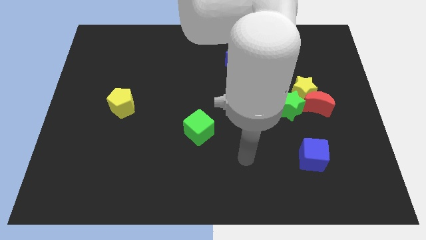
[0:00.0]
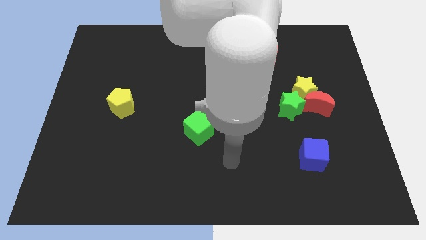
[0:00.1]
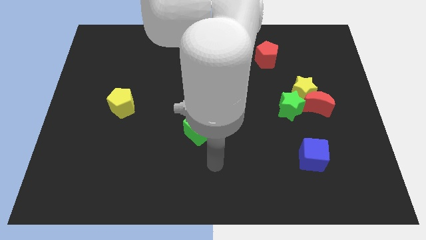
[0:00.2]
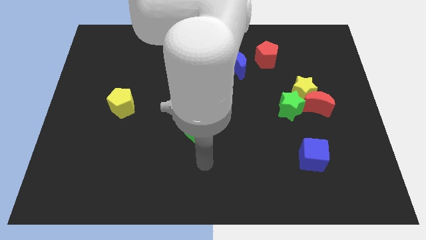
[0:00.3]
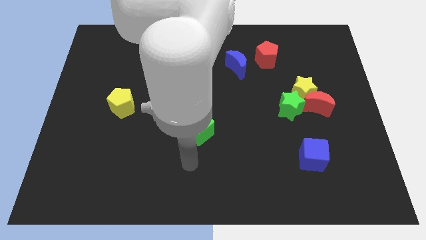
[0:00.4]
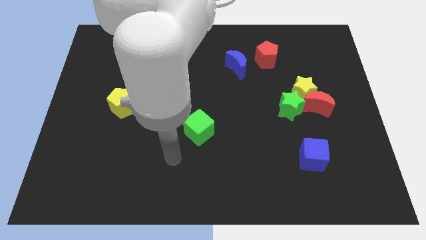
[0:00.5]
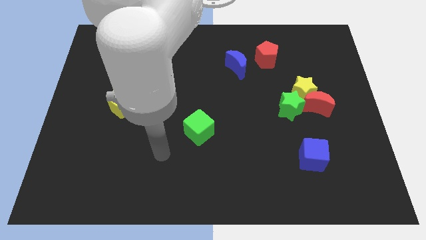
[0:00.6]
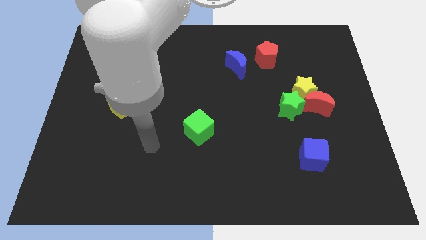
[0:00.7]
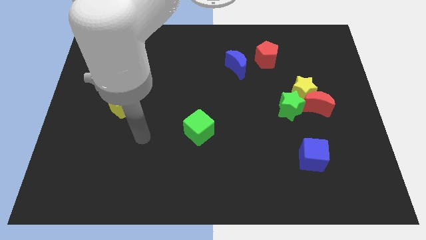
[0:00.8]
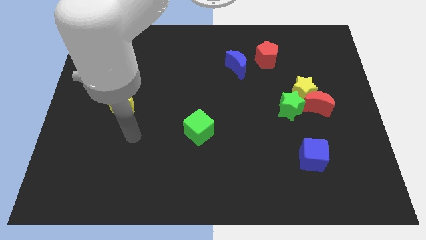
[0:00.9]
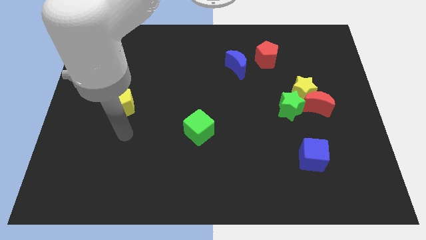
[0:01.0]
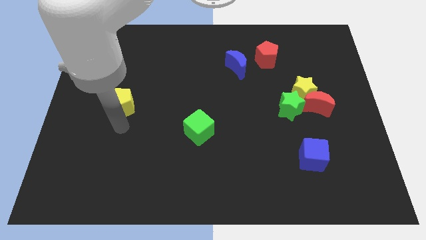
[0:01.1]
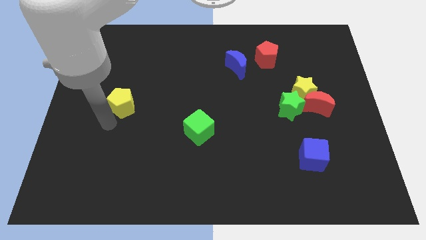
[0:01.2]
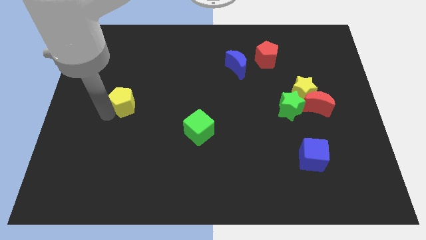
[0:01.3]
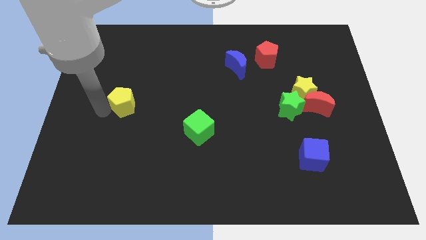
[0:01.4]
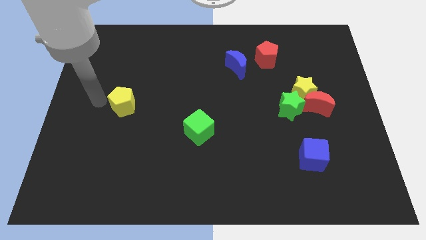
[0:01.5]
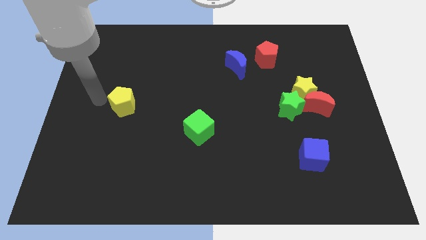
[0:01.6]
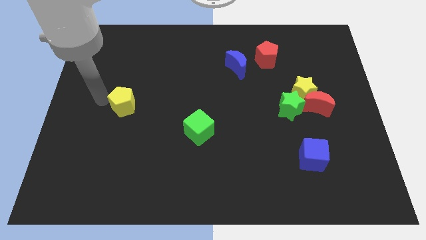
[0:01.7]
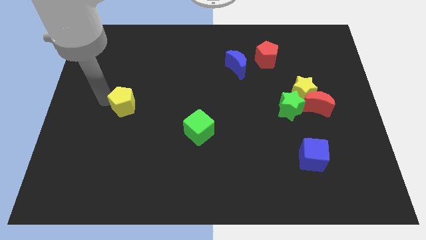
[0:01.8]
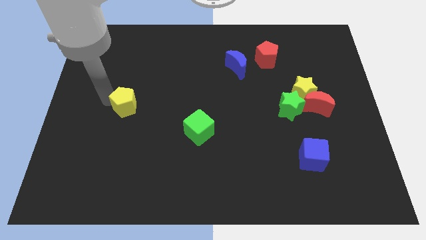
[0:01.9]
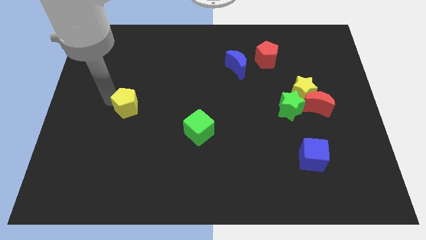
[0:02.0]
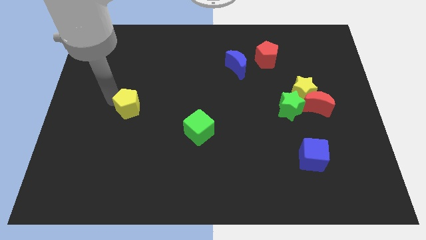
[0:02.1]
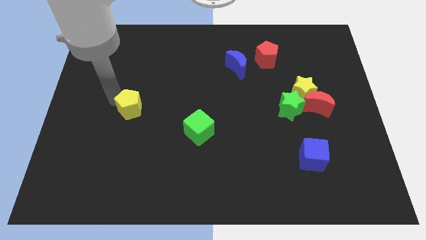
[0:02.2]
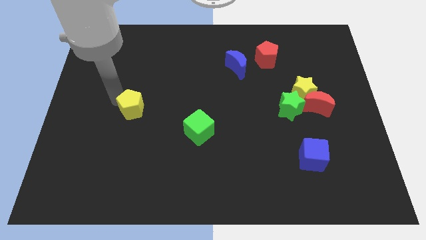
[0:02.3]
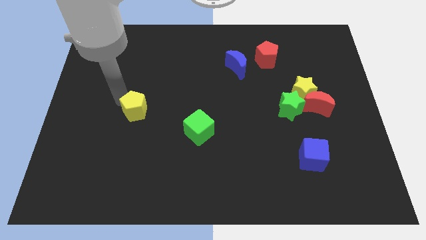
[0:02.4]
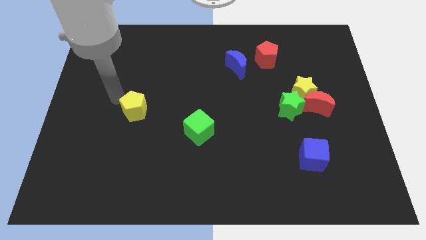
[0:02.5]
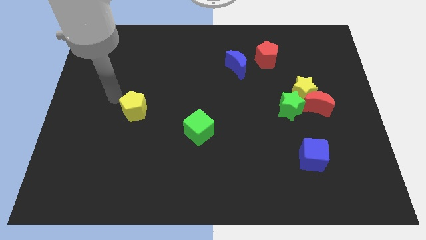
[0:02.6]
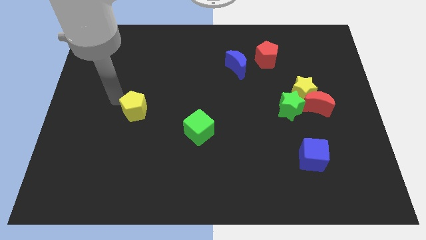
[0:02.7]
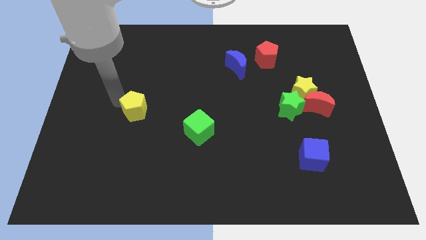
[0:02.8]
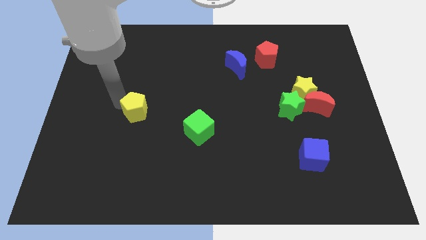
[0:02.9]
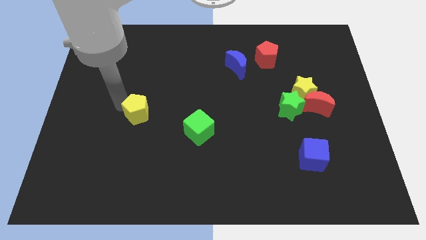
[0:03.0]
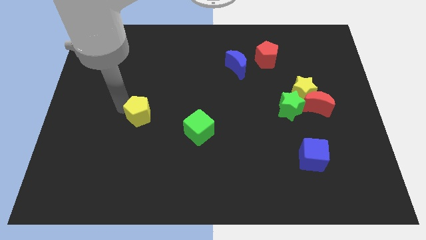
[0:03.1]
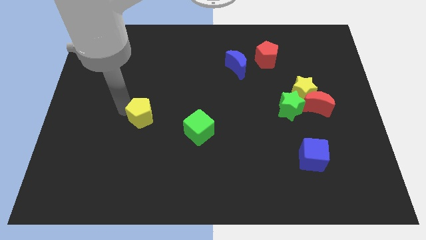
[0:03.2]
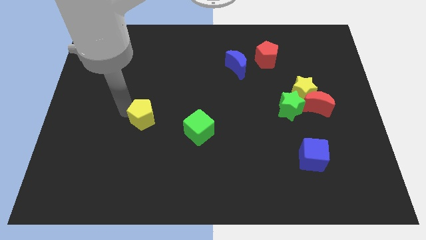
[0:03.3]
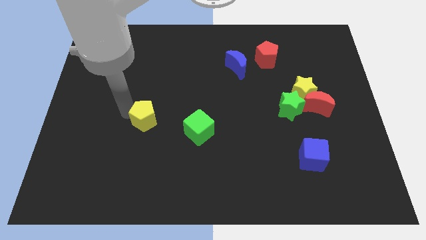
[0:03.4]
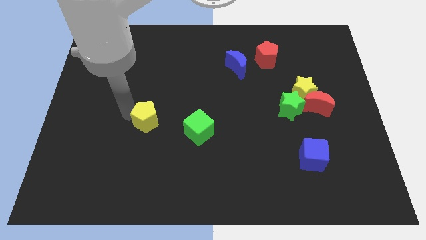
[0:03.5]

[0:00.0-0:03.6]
slide the yellow pentagon down and then right a little

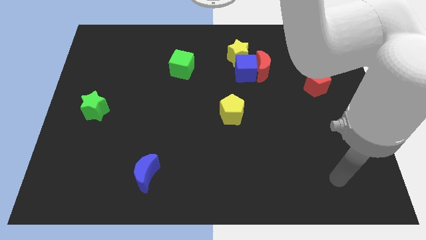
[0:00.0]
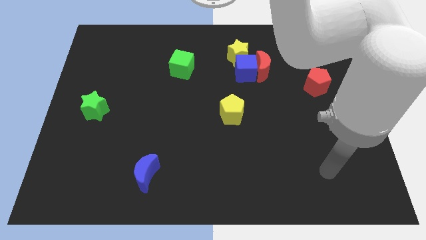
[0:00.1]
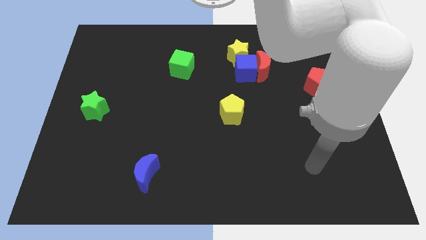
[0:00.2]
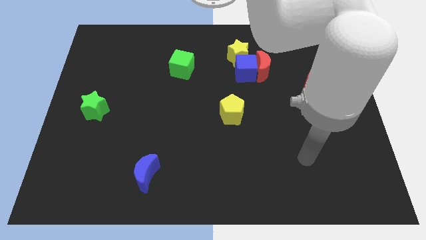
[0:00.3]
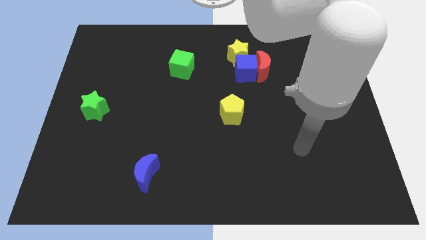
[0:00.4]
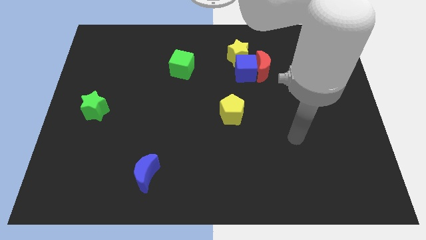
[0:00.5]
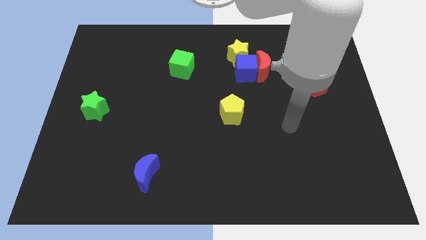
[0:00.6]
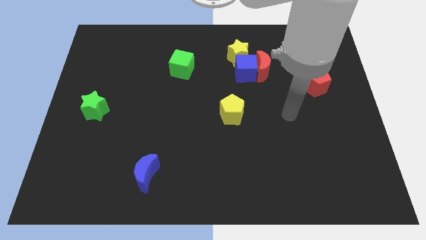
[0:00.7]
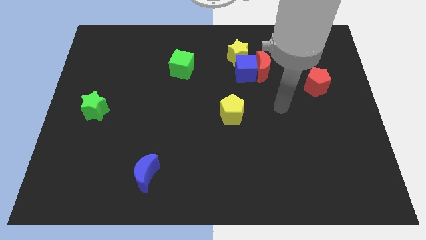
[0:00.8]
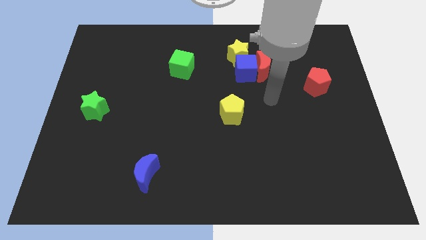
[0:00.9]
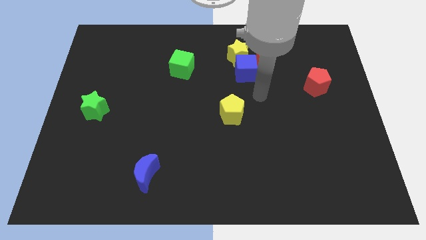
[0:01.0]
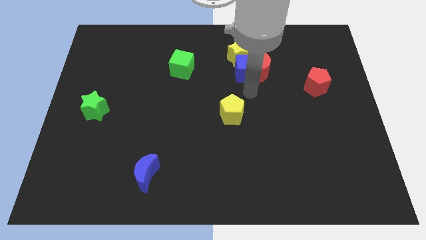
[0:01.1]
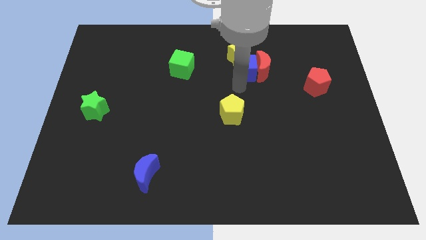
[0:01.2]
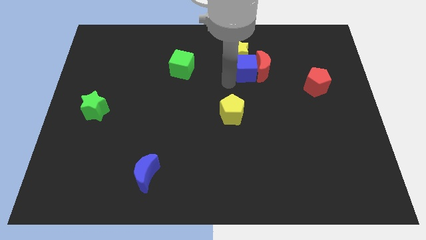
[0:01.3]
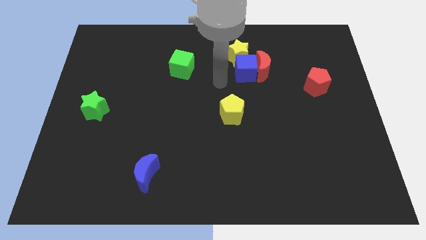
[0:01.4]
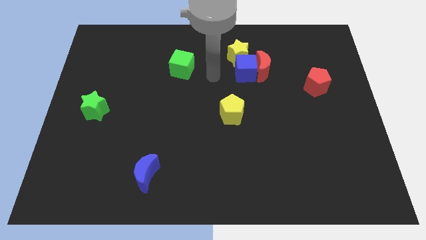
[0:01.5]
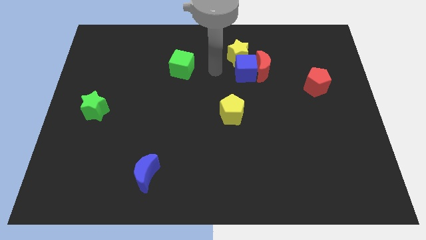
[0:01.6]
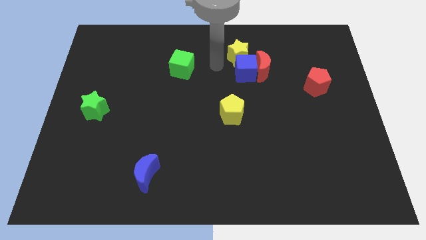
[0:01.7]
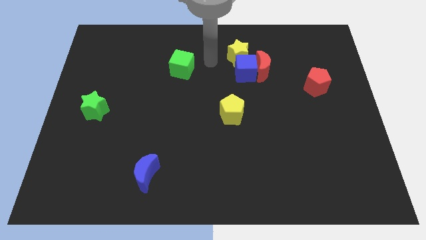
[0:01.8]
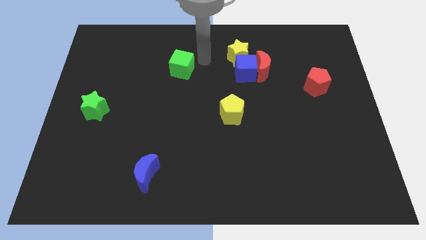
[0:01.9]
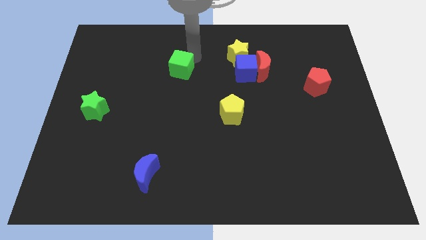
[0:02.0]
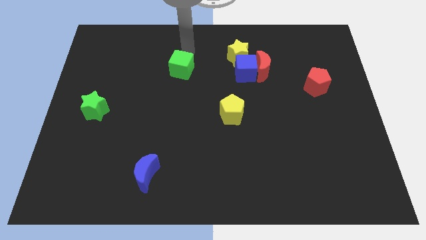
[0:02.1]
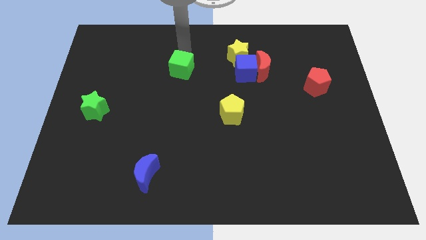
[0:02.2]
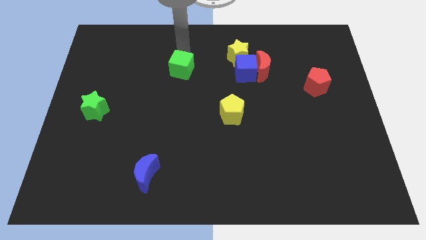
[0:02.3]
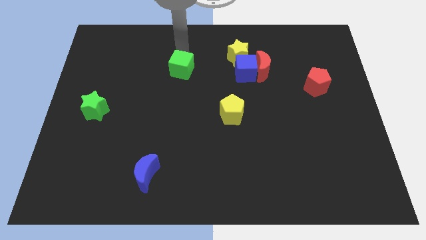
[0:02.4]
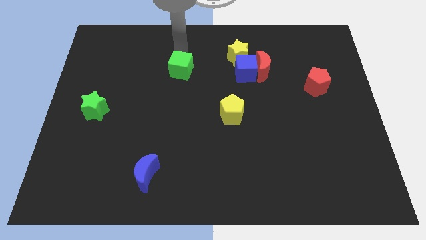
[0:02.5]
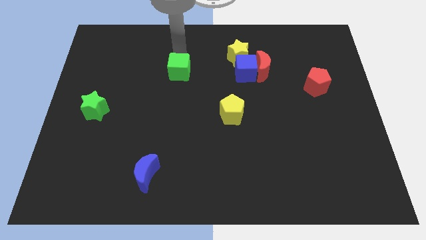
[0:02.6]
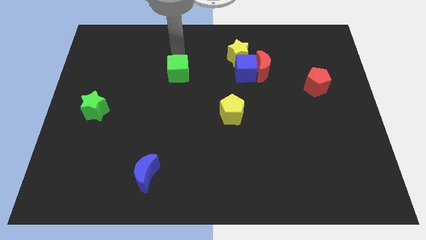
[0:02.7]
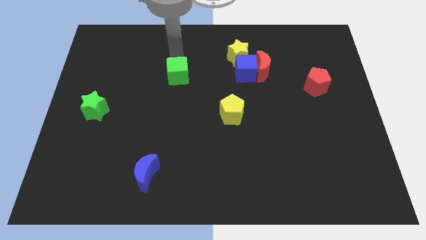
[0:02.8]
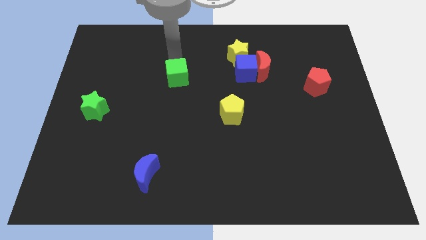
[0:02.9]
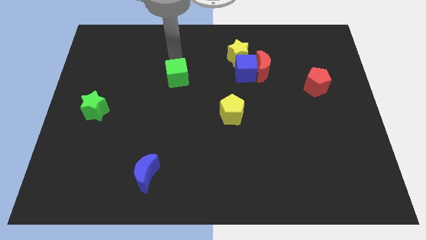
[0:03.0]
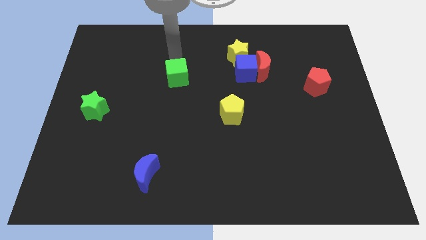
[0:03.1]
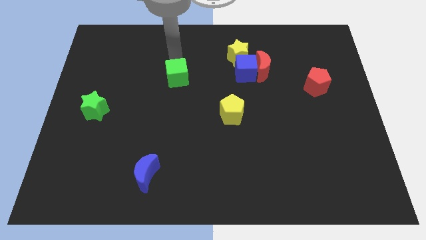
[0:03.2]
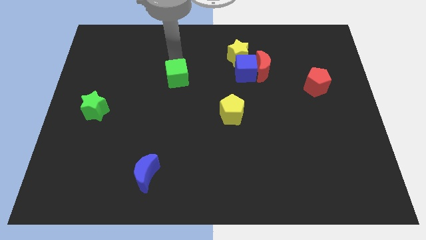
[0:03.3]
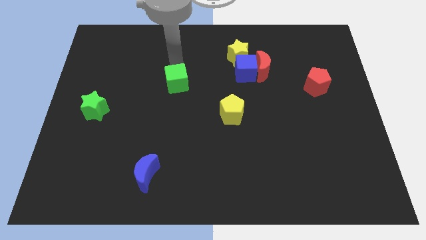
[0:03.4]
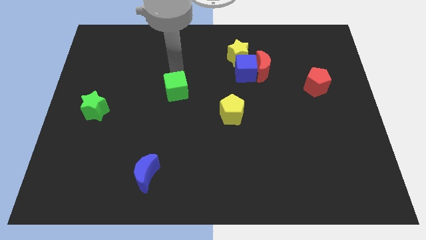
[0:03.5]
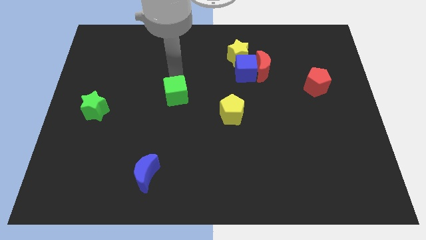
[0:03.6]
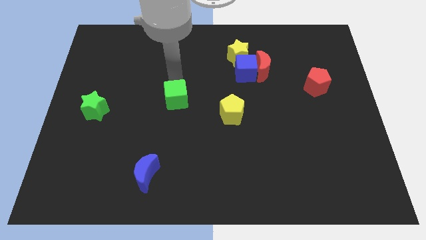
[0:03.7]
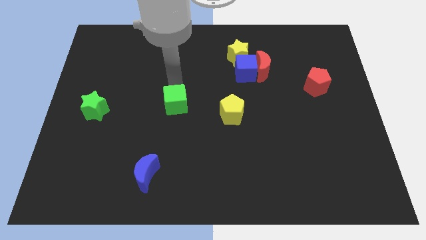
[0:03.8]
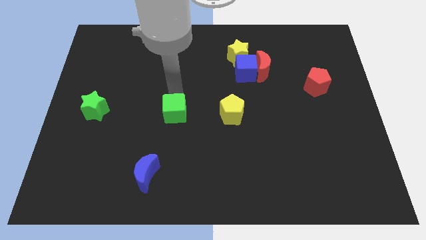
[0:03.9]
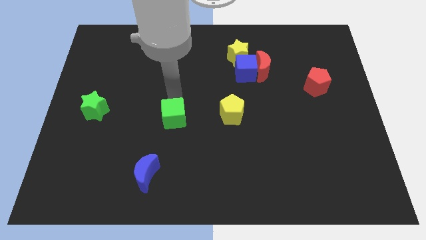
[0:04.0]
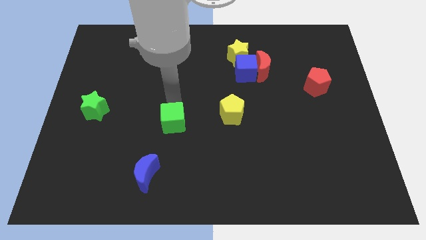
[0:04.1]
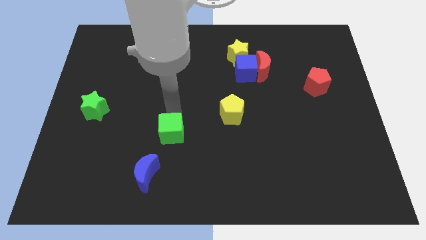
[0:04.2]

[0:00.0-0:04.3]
move the green cube downwards
